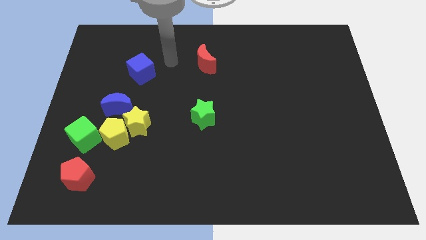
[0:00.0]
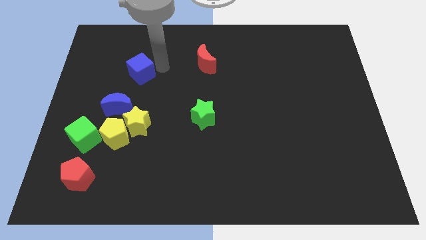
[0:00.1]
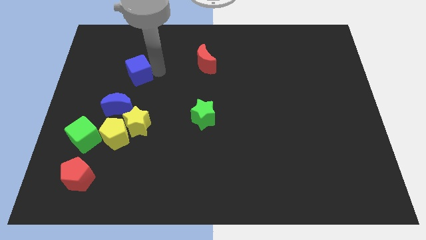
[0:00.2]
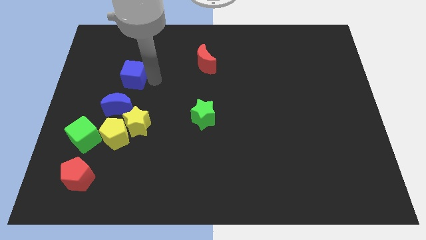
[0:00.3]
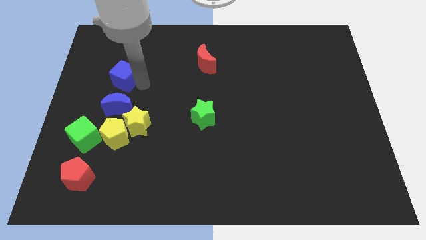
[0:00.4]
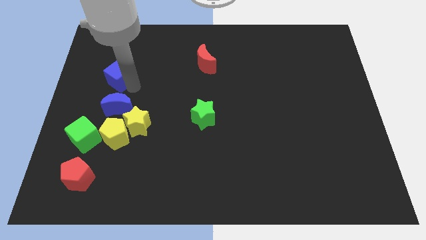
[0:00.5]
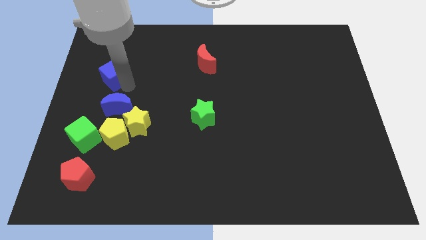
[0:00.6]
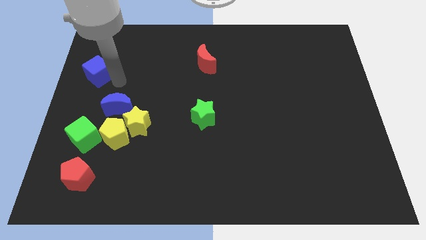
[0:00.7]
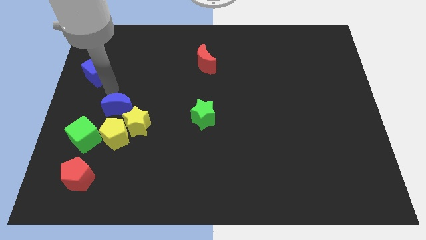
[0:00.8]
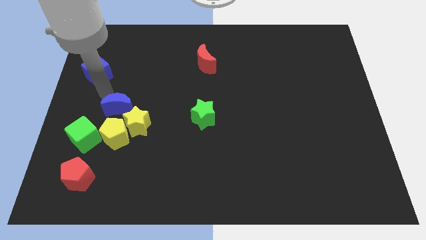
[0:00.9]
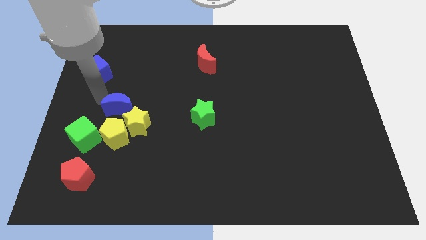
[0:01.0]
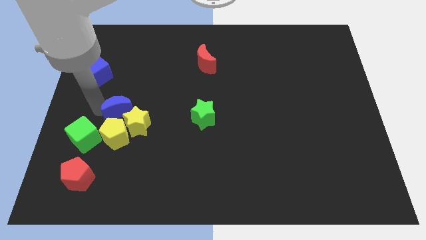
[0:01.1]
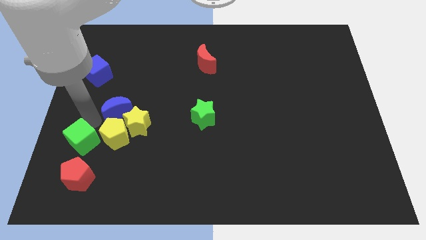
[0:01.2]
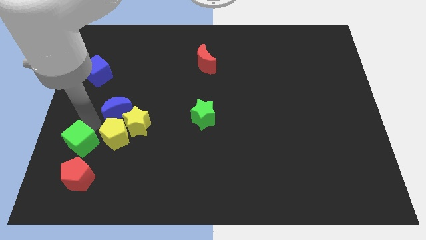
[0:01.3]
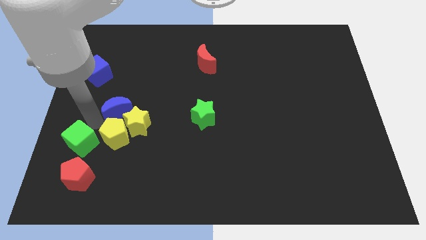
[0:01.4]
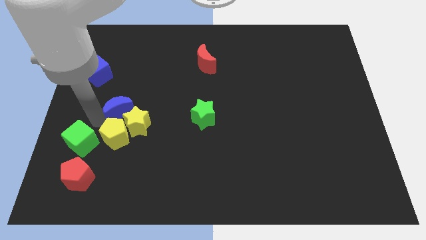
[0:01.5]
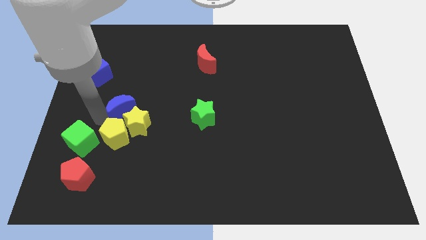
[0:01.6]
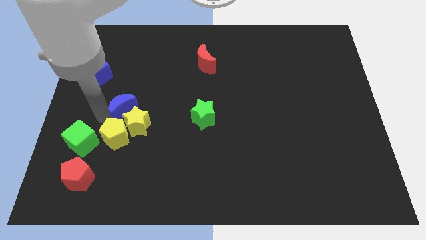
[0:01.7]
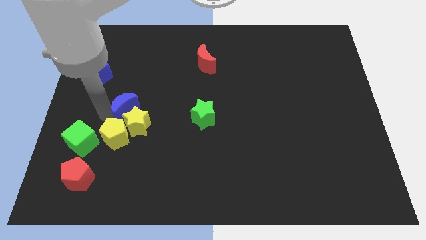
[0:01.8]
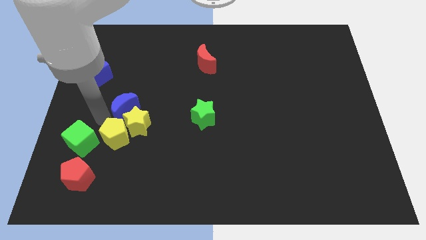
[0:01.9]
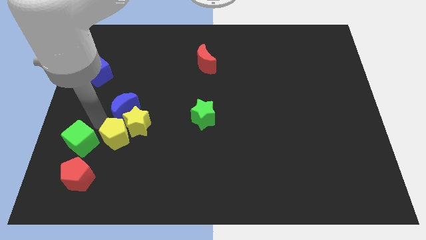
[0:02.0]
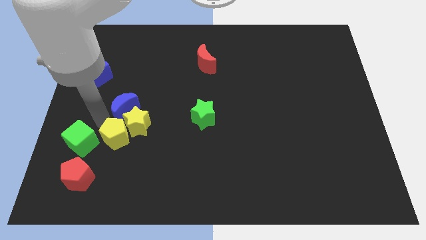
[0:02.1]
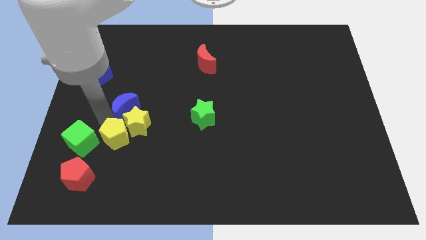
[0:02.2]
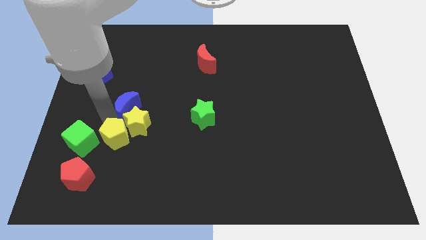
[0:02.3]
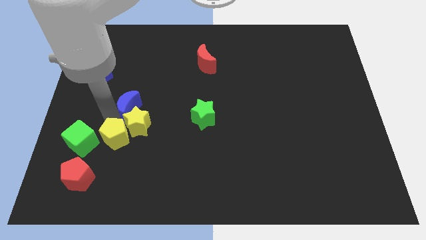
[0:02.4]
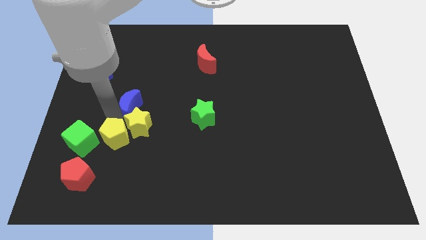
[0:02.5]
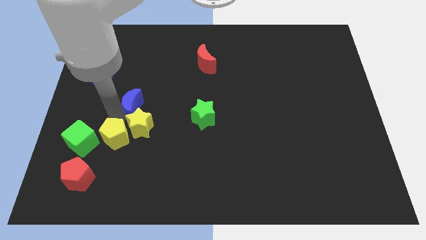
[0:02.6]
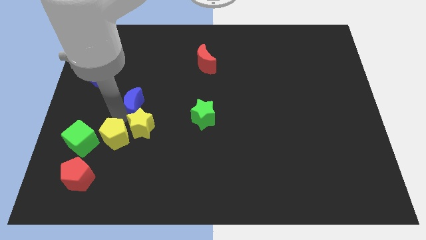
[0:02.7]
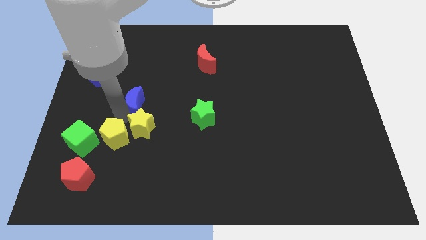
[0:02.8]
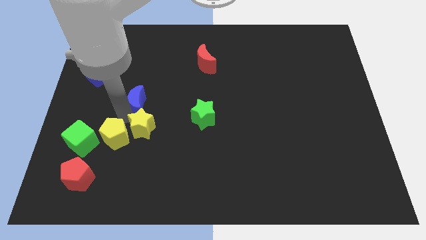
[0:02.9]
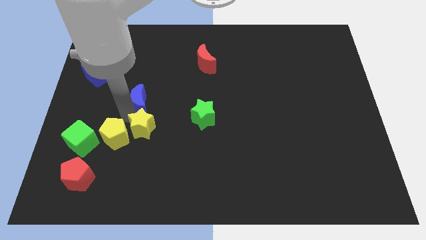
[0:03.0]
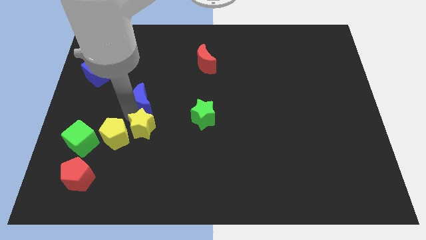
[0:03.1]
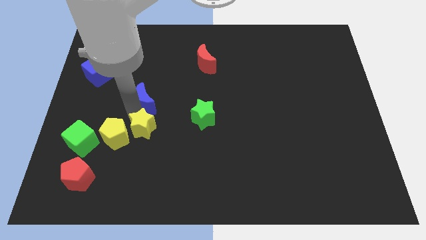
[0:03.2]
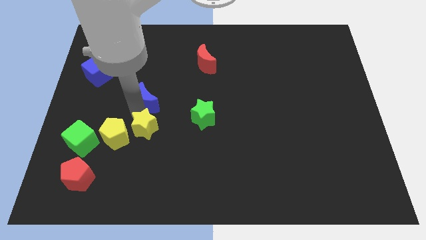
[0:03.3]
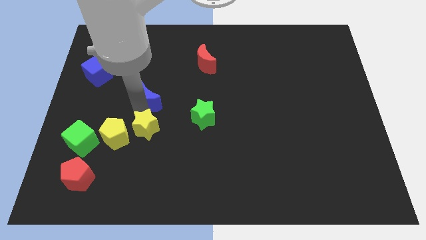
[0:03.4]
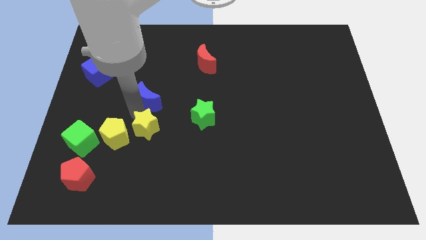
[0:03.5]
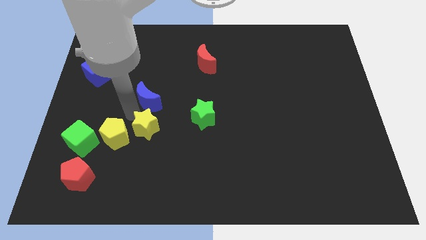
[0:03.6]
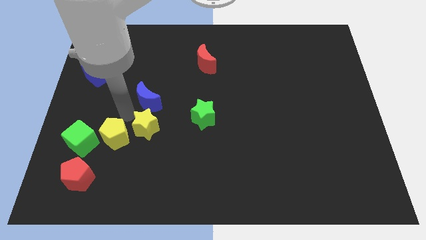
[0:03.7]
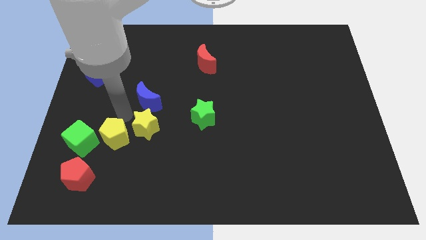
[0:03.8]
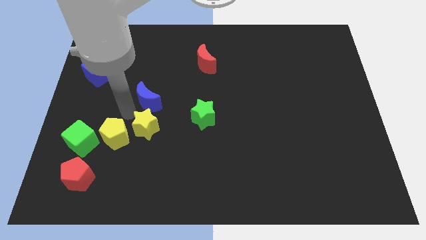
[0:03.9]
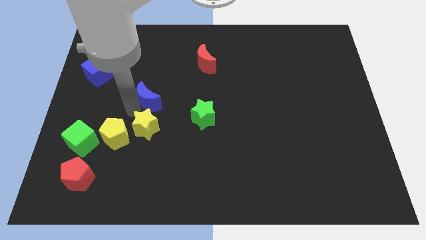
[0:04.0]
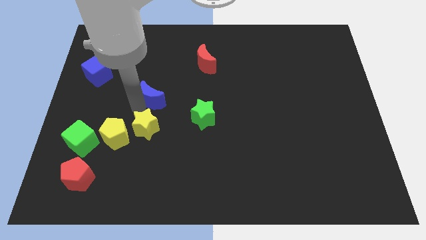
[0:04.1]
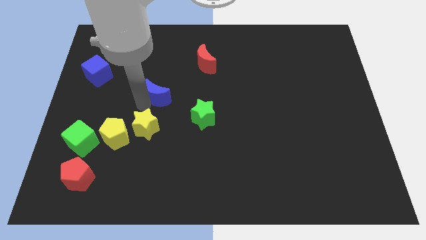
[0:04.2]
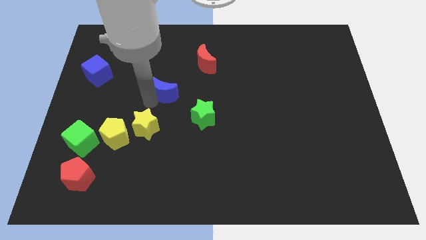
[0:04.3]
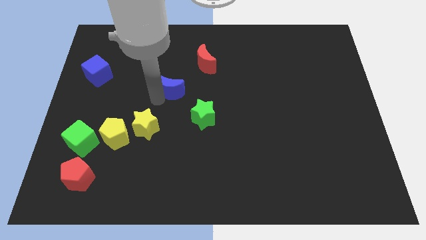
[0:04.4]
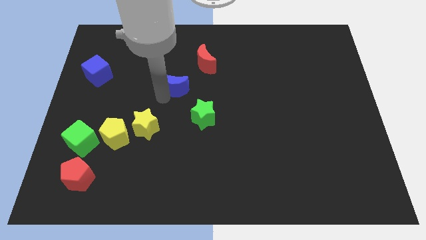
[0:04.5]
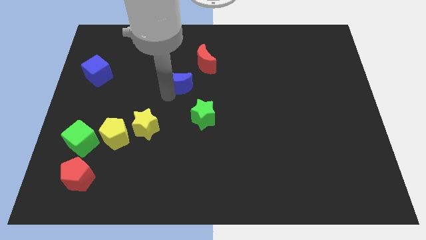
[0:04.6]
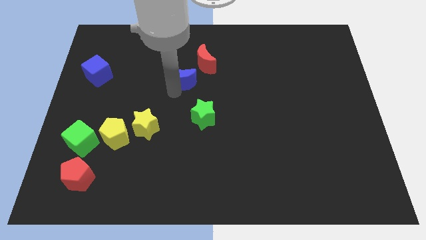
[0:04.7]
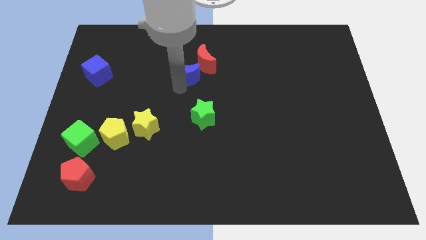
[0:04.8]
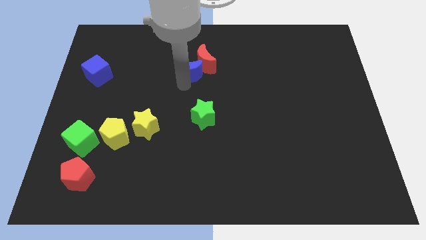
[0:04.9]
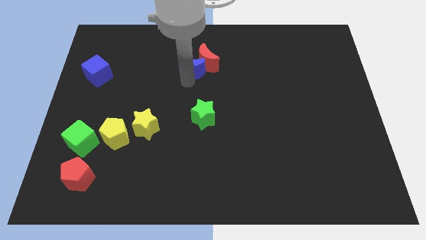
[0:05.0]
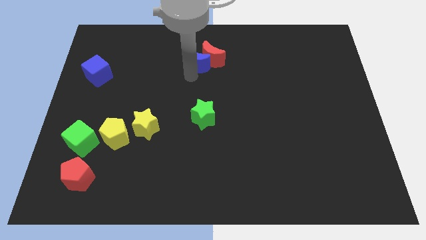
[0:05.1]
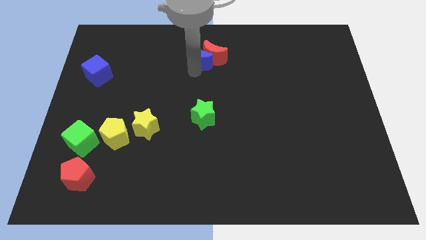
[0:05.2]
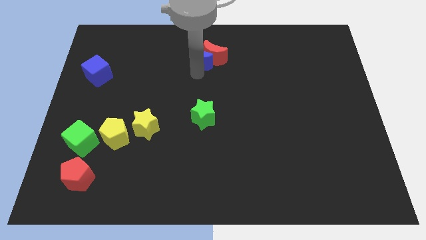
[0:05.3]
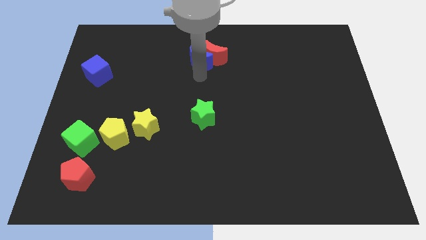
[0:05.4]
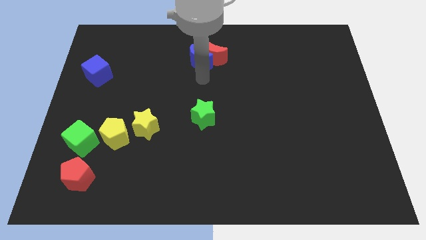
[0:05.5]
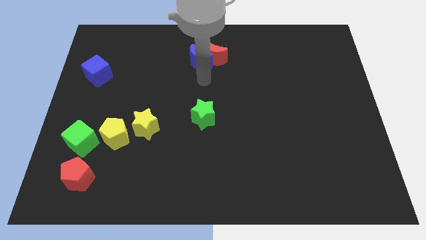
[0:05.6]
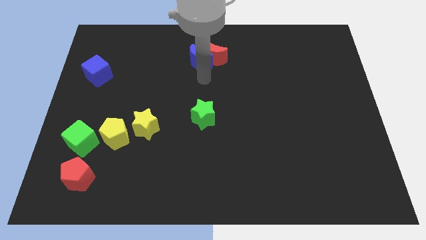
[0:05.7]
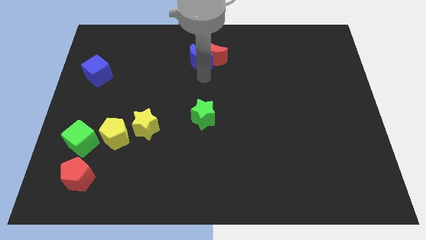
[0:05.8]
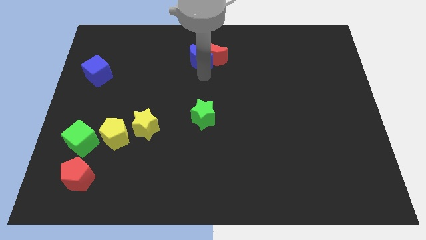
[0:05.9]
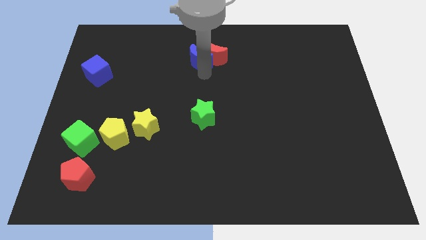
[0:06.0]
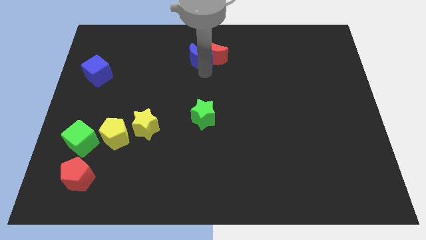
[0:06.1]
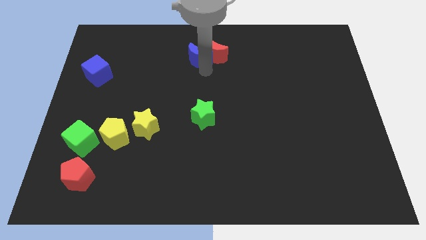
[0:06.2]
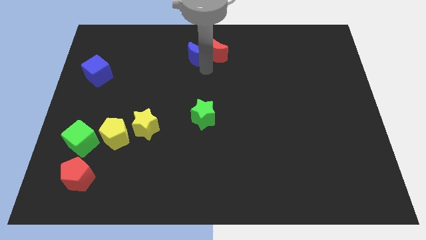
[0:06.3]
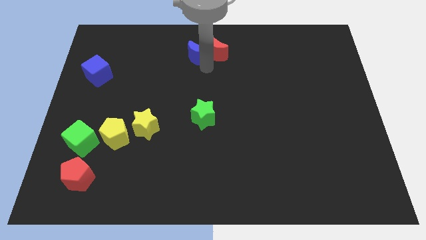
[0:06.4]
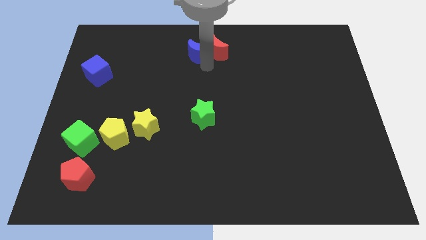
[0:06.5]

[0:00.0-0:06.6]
move the blue moon to the towards your base
